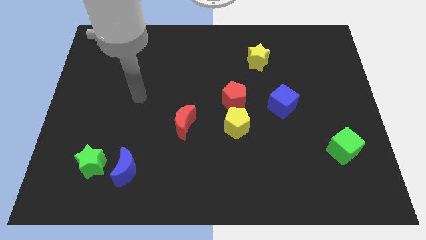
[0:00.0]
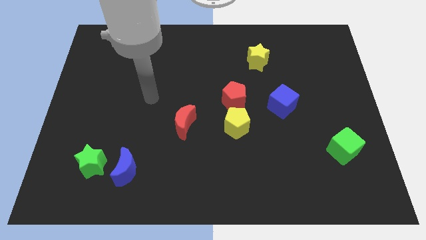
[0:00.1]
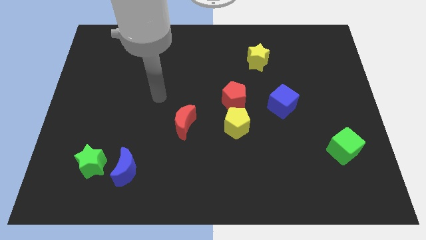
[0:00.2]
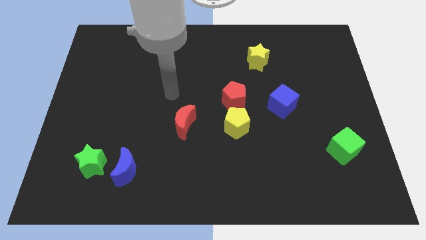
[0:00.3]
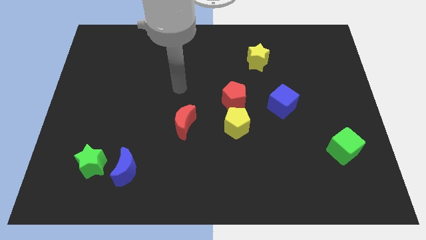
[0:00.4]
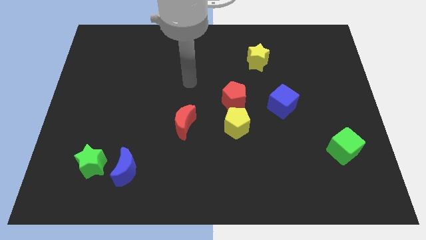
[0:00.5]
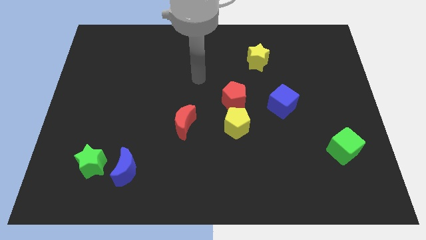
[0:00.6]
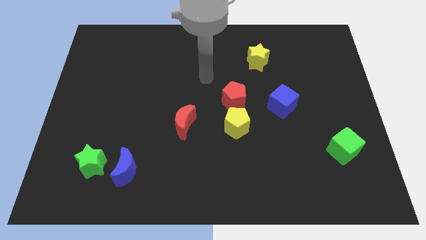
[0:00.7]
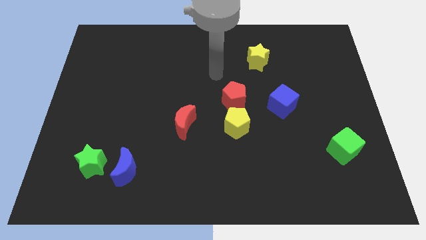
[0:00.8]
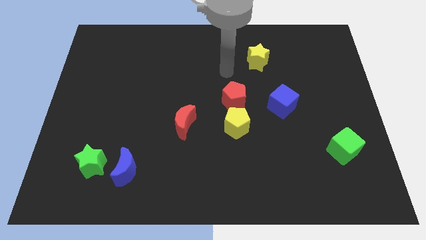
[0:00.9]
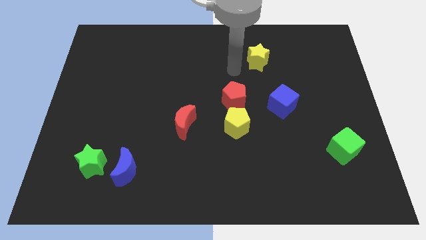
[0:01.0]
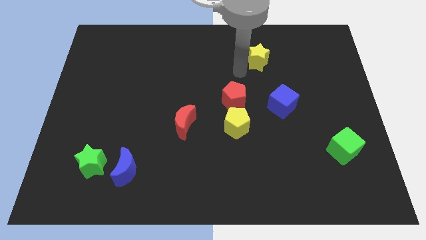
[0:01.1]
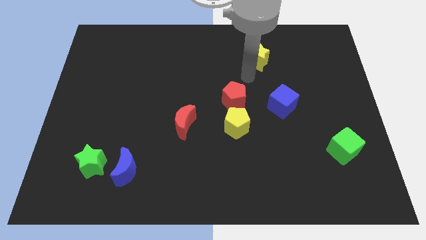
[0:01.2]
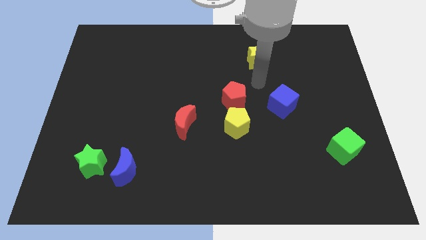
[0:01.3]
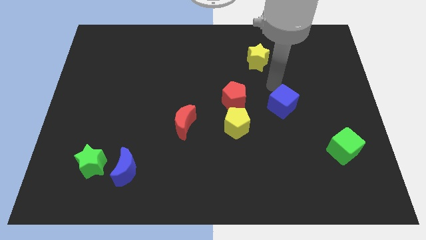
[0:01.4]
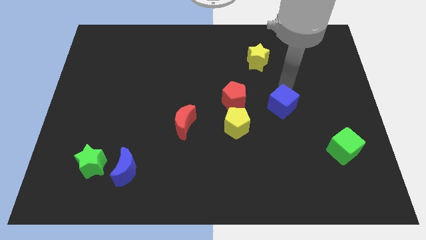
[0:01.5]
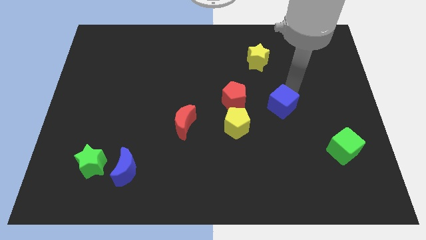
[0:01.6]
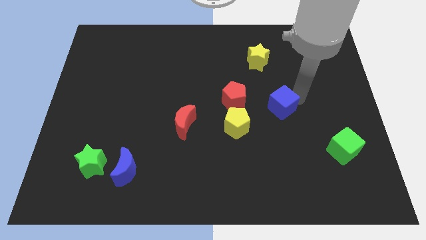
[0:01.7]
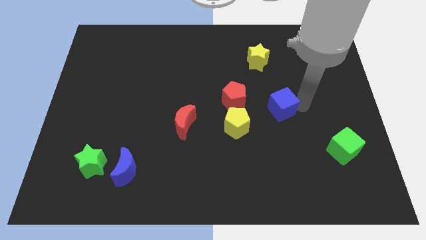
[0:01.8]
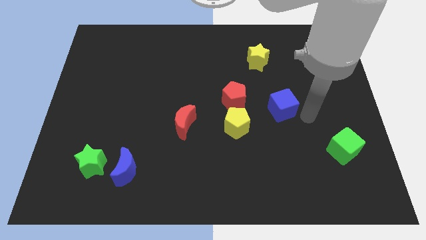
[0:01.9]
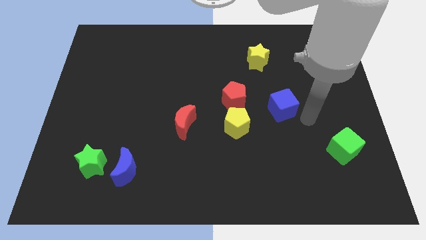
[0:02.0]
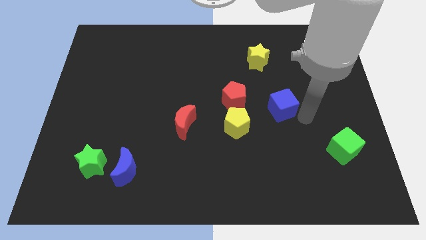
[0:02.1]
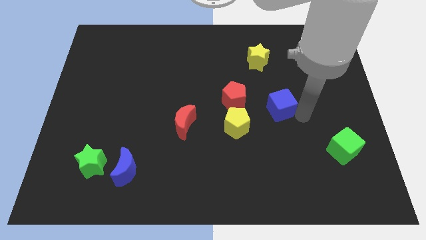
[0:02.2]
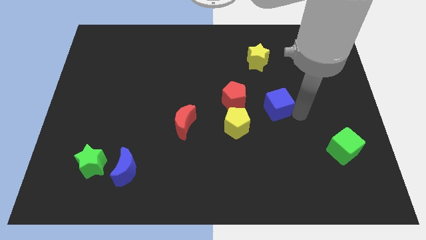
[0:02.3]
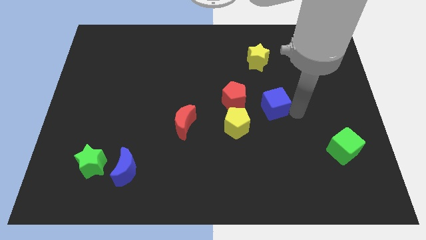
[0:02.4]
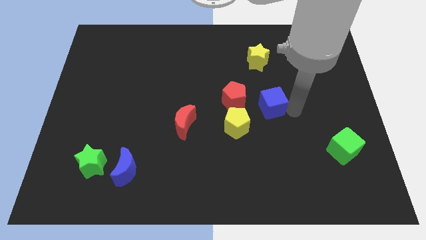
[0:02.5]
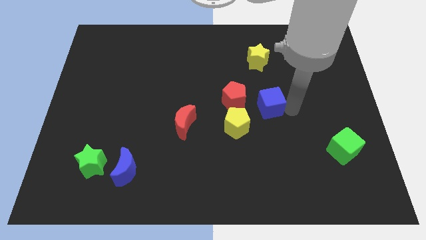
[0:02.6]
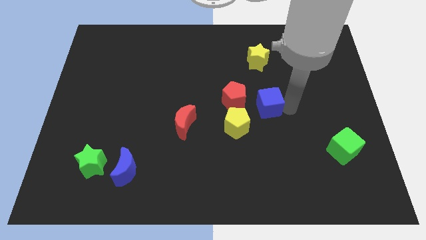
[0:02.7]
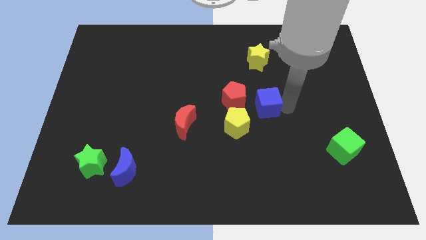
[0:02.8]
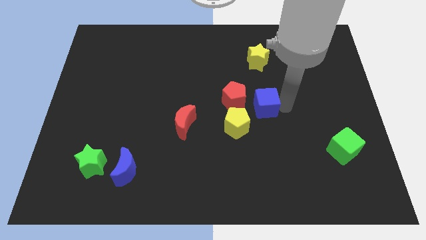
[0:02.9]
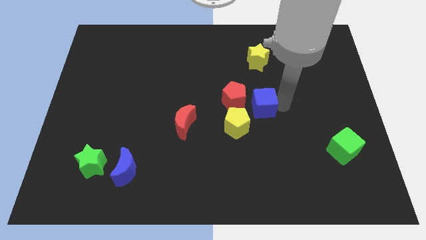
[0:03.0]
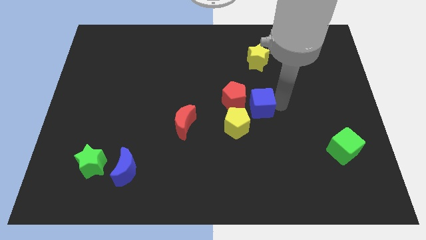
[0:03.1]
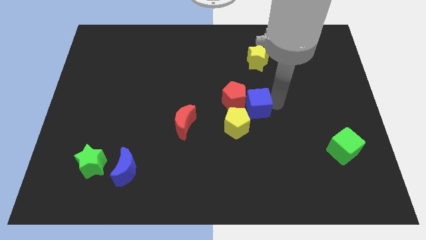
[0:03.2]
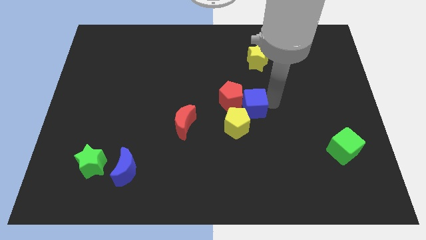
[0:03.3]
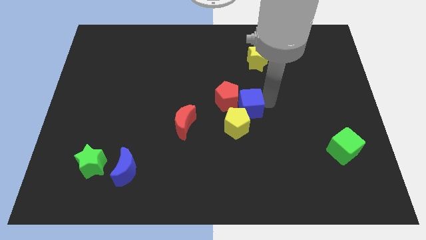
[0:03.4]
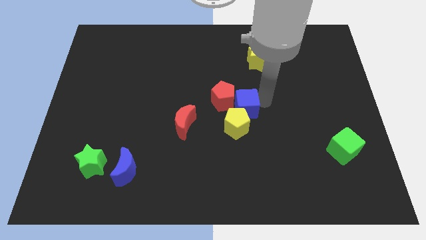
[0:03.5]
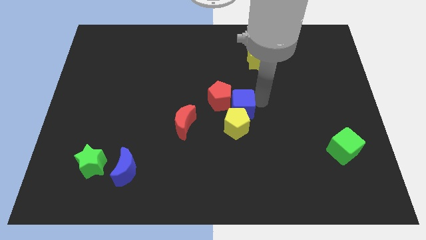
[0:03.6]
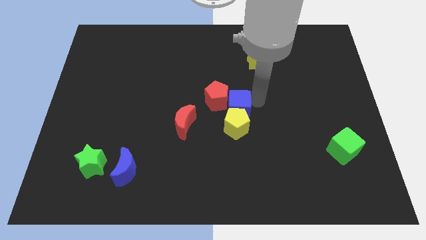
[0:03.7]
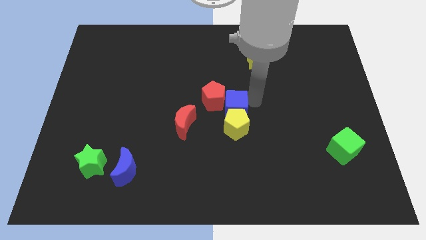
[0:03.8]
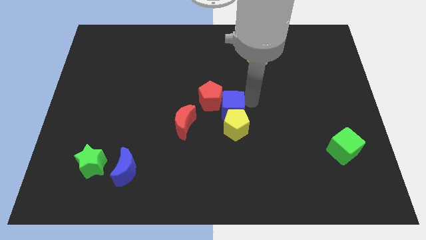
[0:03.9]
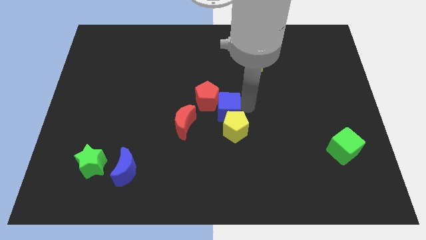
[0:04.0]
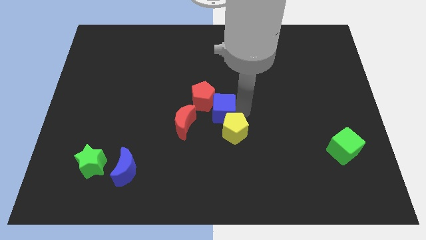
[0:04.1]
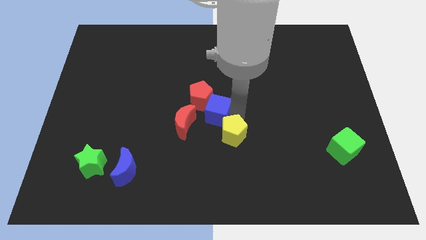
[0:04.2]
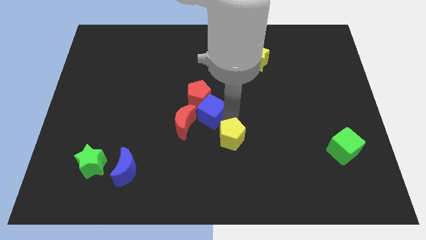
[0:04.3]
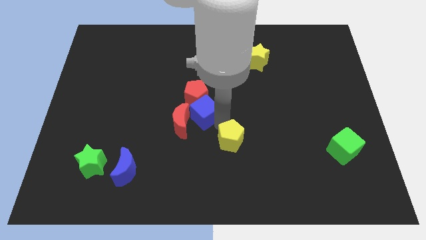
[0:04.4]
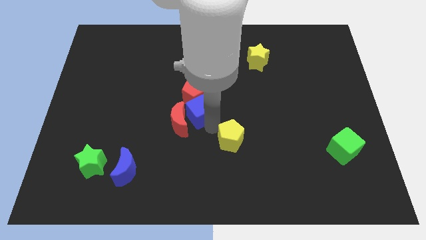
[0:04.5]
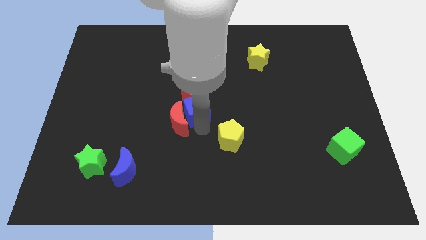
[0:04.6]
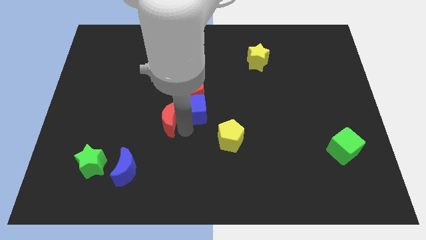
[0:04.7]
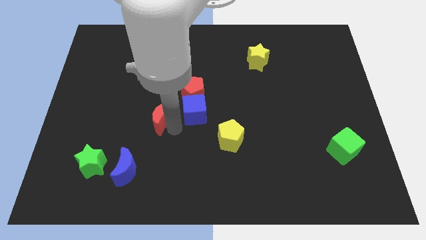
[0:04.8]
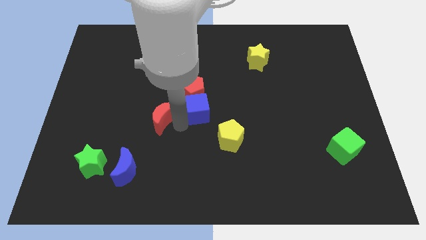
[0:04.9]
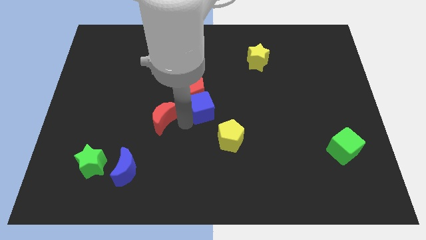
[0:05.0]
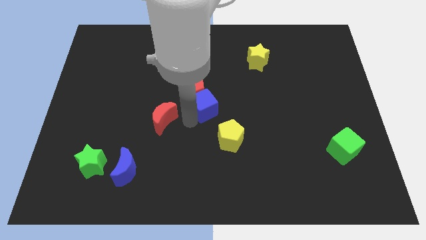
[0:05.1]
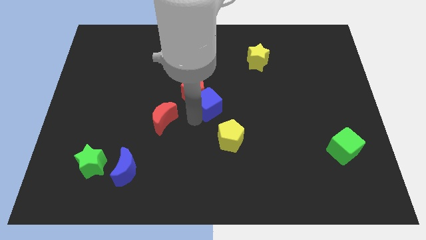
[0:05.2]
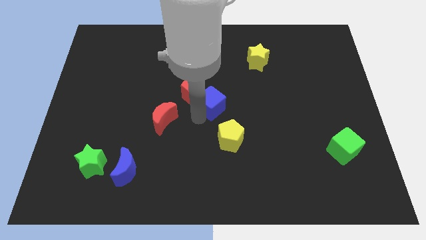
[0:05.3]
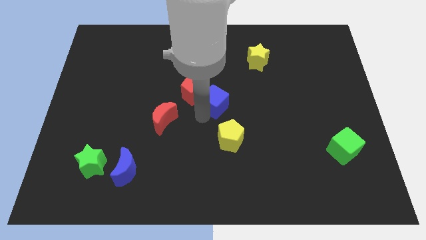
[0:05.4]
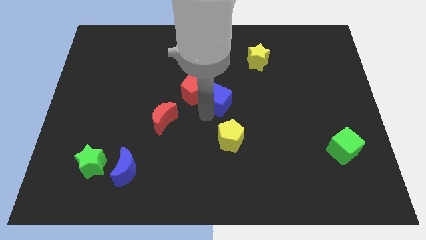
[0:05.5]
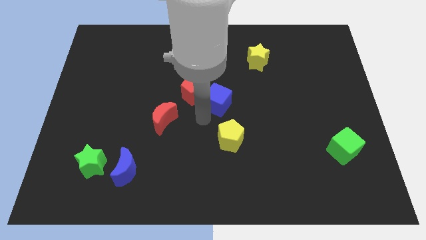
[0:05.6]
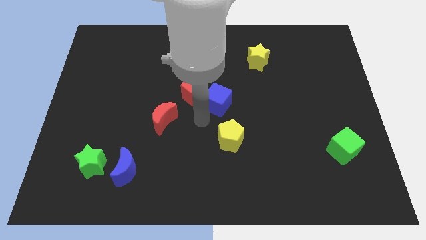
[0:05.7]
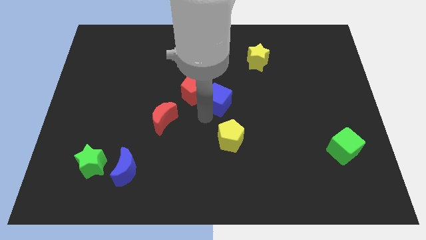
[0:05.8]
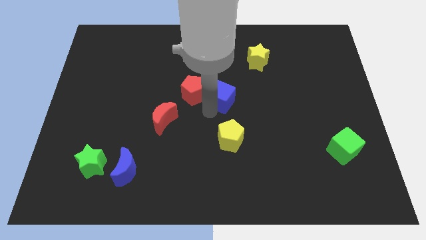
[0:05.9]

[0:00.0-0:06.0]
slide the blue cube up and to the left diagonally slightly

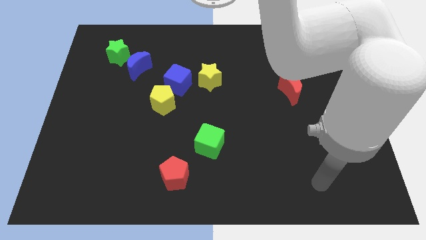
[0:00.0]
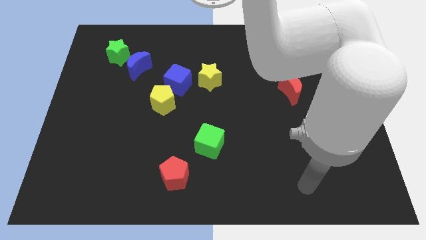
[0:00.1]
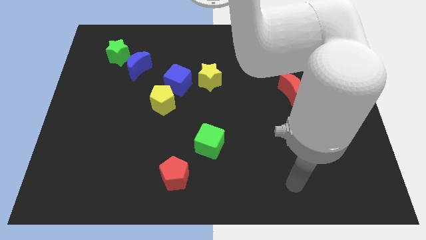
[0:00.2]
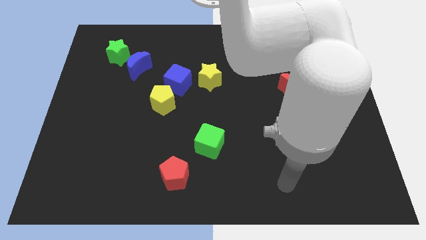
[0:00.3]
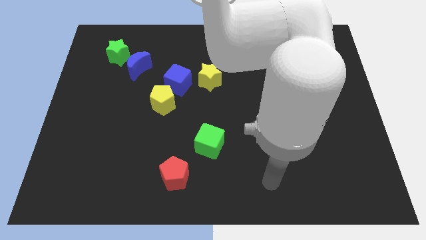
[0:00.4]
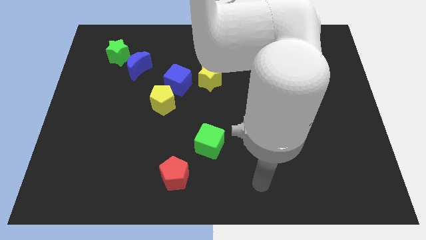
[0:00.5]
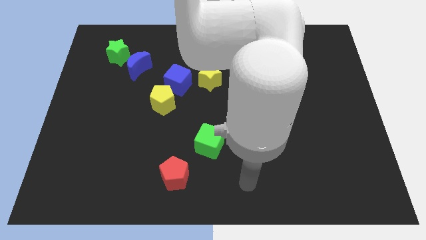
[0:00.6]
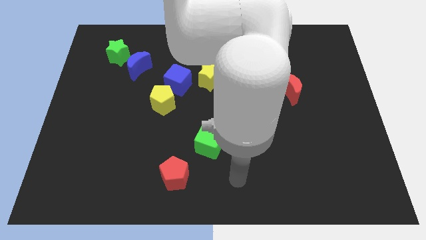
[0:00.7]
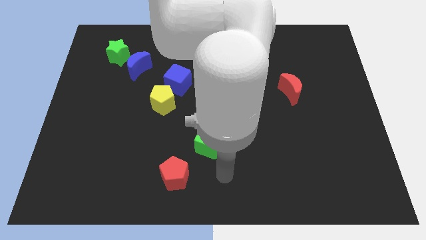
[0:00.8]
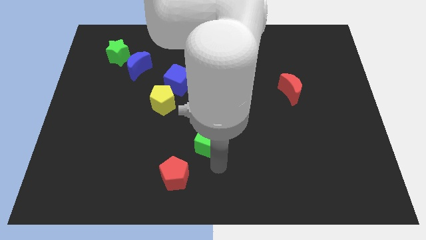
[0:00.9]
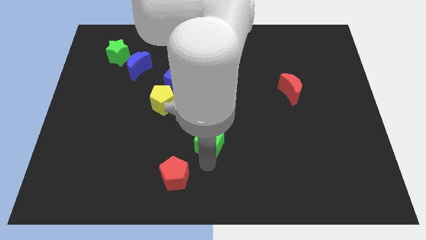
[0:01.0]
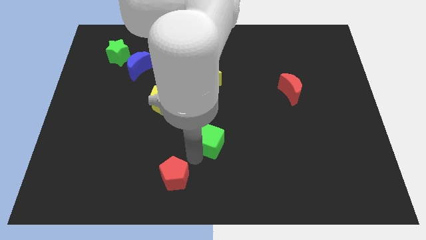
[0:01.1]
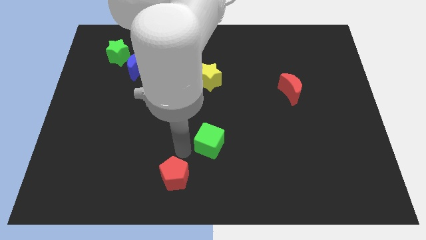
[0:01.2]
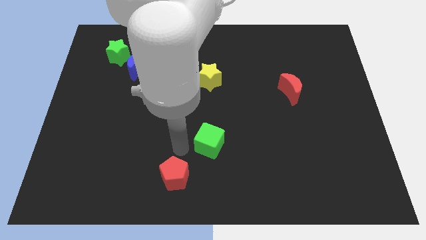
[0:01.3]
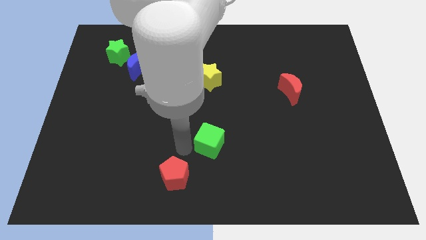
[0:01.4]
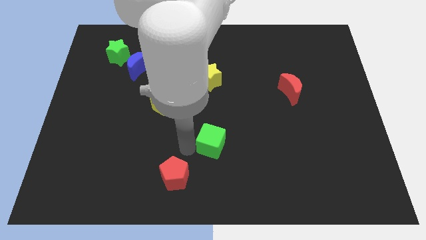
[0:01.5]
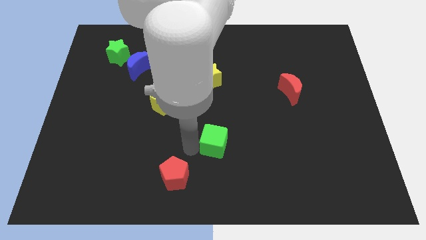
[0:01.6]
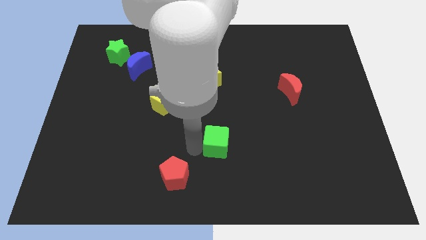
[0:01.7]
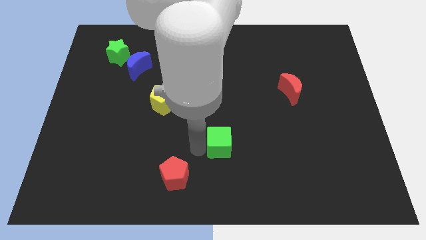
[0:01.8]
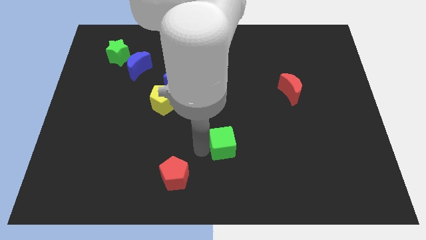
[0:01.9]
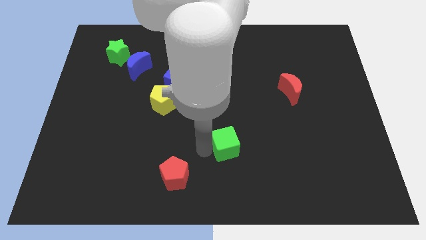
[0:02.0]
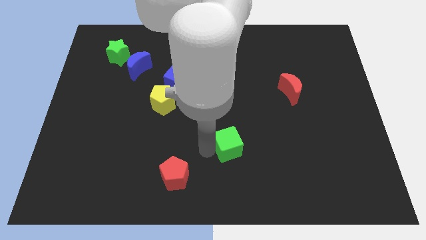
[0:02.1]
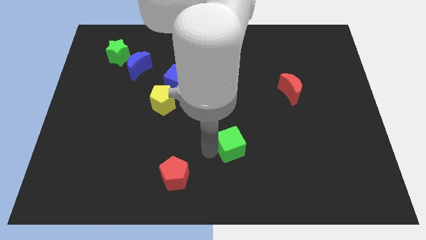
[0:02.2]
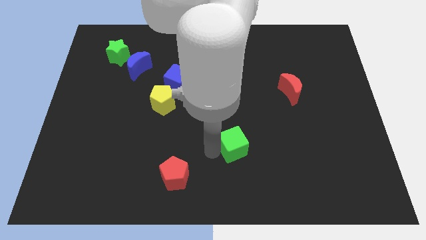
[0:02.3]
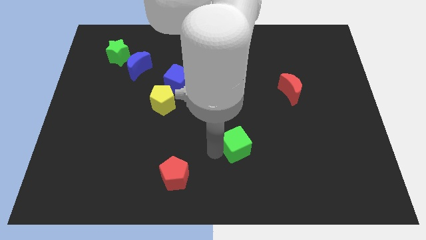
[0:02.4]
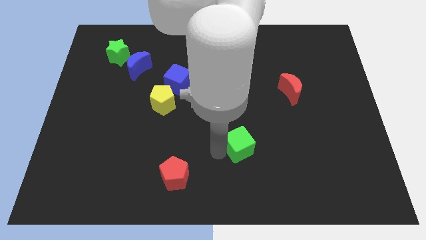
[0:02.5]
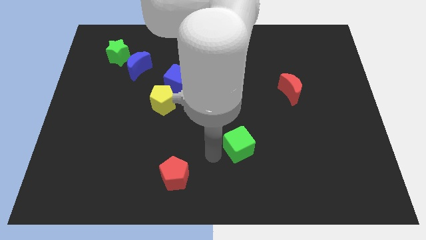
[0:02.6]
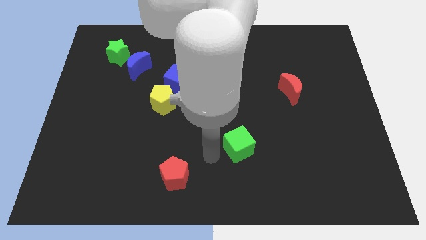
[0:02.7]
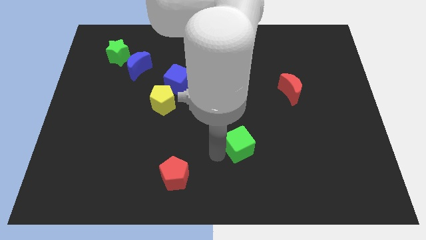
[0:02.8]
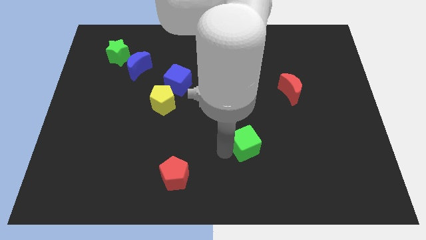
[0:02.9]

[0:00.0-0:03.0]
slide the green cube to the right a little bit
